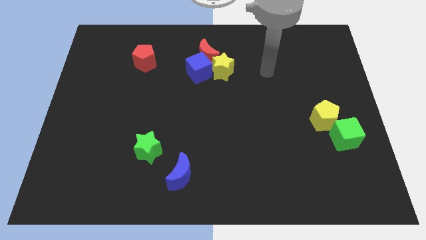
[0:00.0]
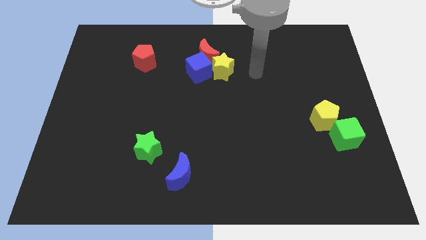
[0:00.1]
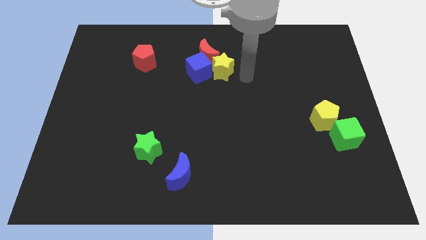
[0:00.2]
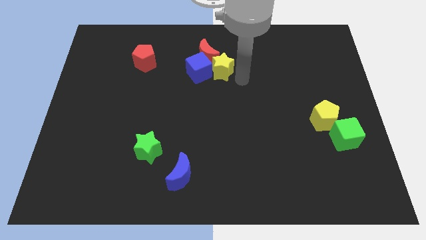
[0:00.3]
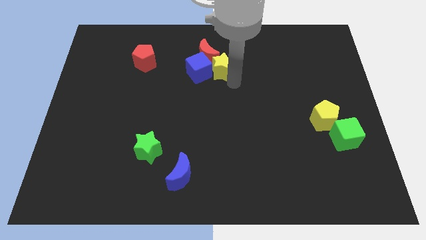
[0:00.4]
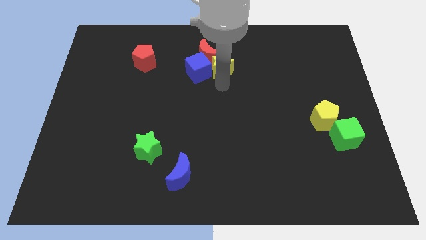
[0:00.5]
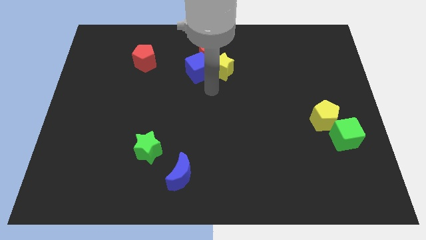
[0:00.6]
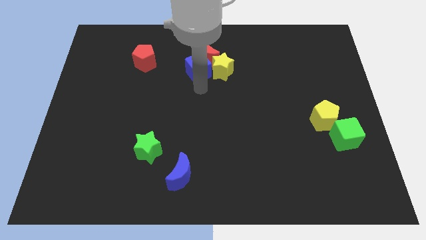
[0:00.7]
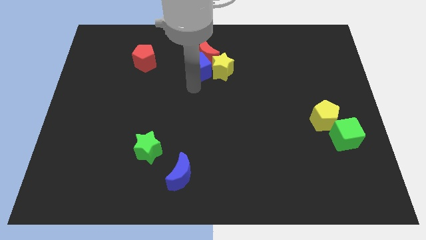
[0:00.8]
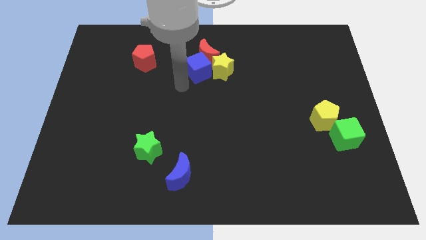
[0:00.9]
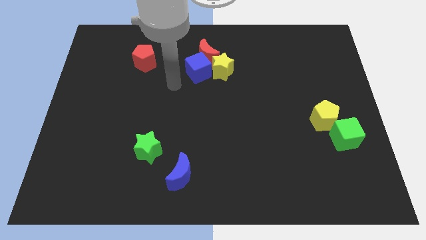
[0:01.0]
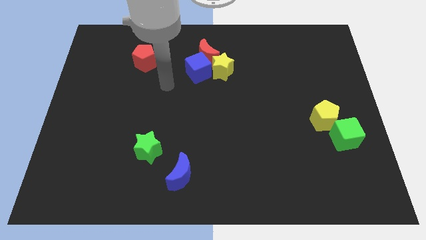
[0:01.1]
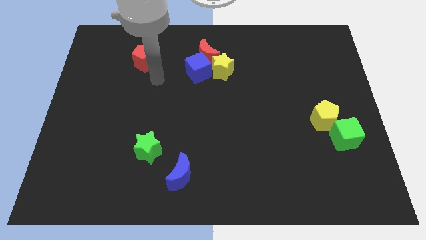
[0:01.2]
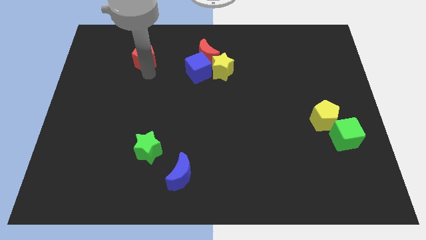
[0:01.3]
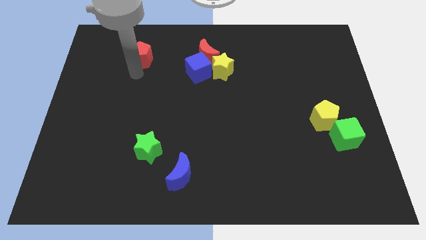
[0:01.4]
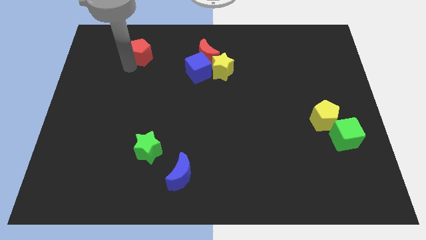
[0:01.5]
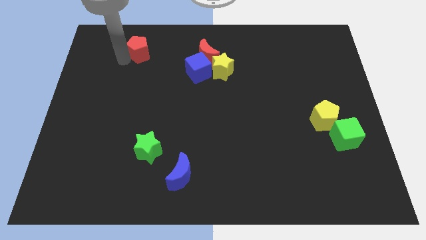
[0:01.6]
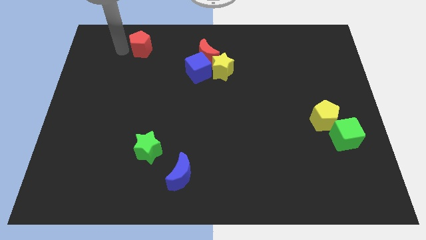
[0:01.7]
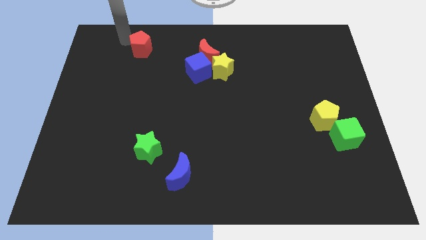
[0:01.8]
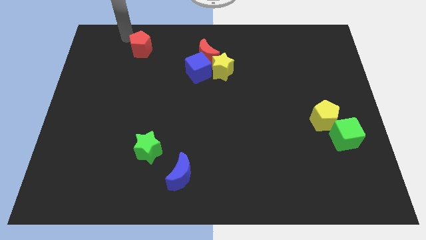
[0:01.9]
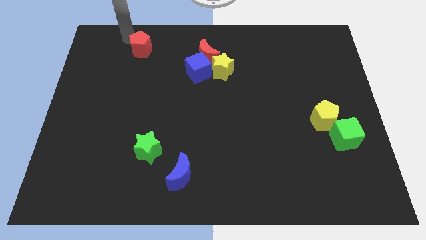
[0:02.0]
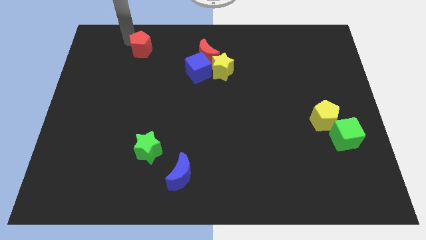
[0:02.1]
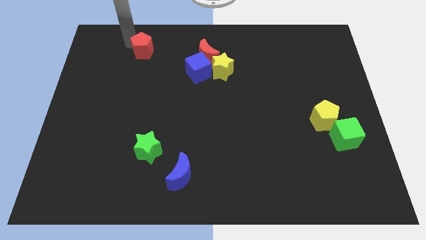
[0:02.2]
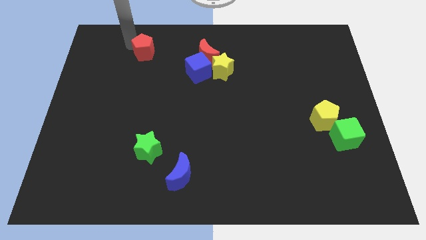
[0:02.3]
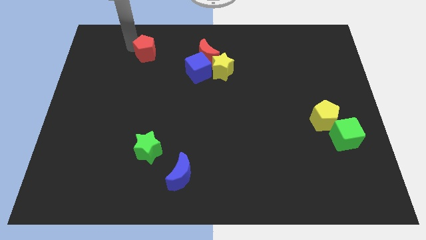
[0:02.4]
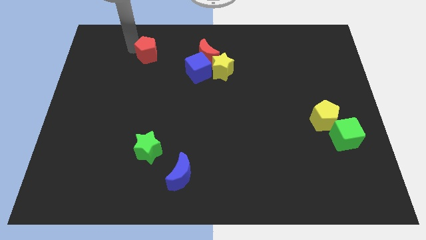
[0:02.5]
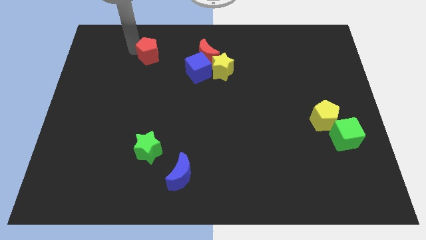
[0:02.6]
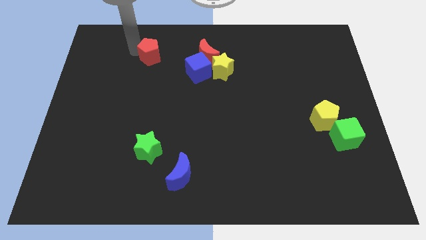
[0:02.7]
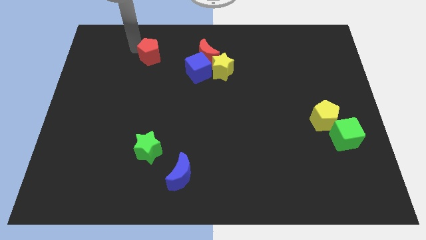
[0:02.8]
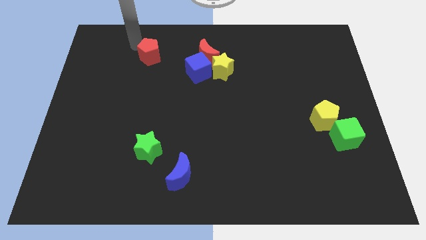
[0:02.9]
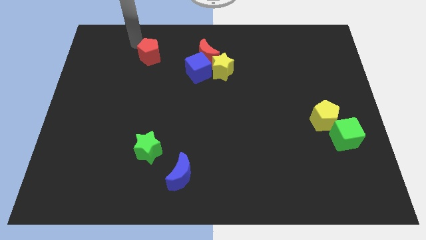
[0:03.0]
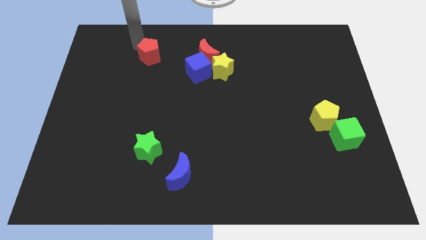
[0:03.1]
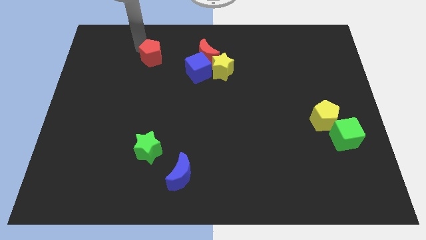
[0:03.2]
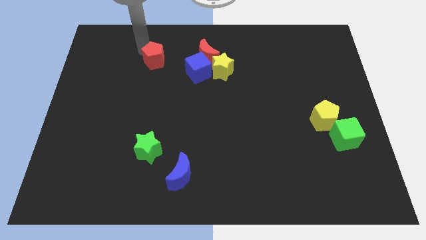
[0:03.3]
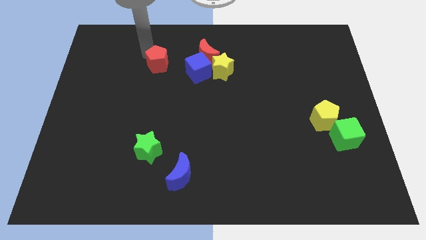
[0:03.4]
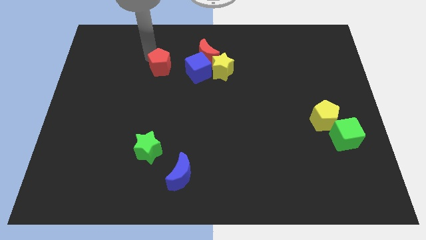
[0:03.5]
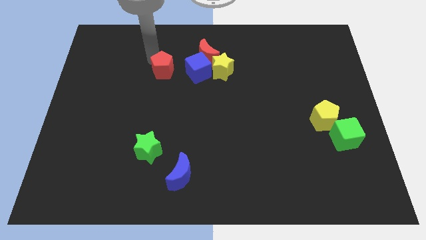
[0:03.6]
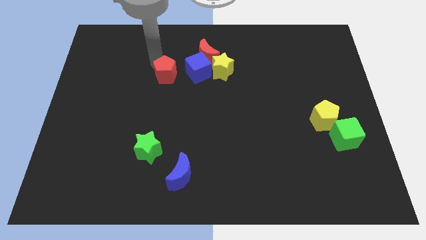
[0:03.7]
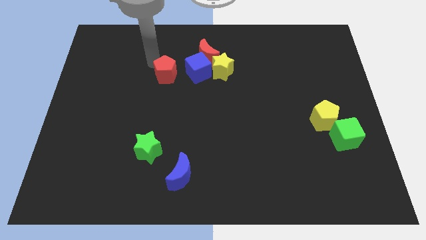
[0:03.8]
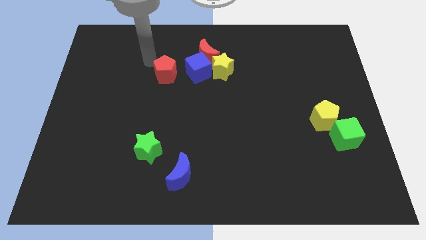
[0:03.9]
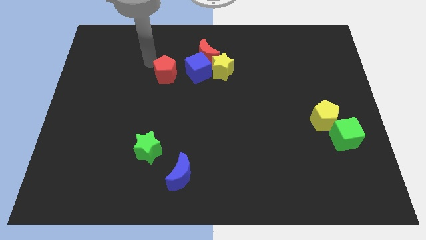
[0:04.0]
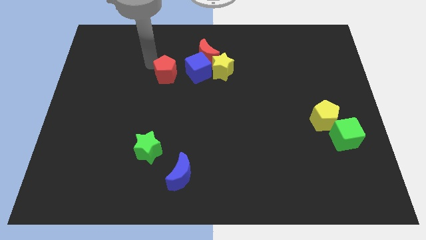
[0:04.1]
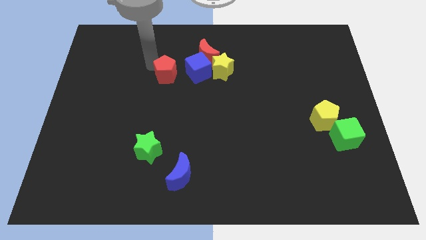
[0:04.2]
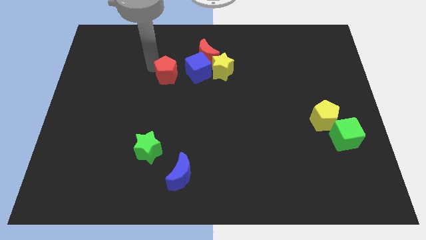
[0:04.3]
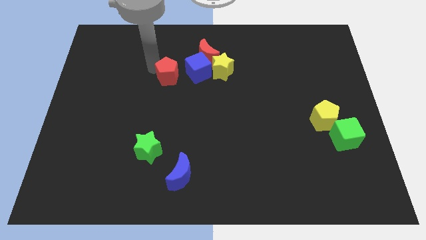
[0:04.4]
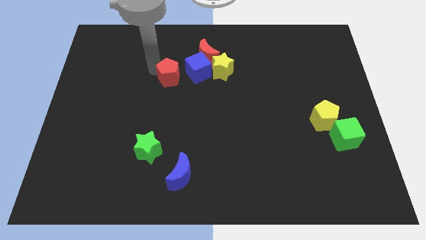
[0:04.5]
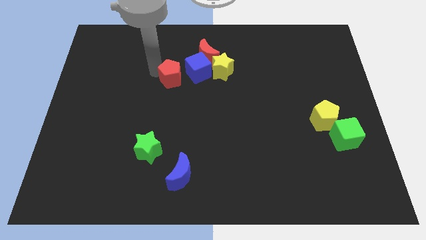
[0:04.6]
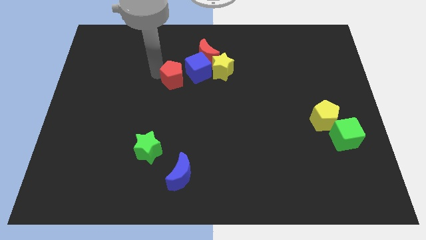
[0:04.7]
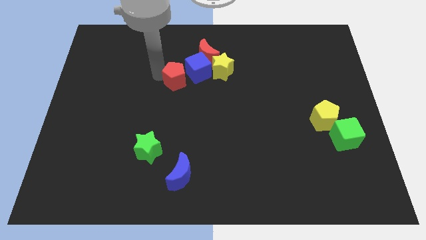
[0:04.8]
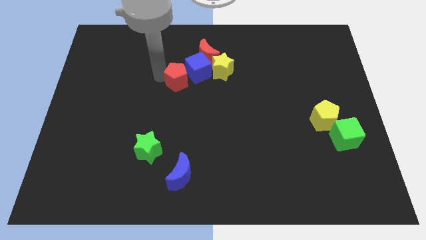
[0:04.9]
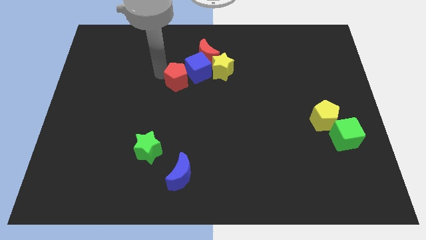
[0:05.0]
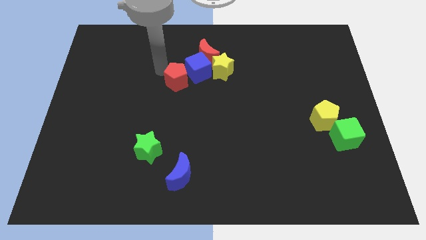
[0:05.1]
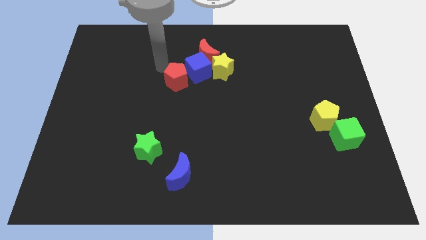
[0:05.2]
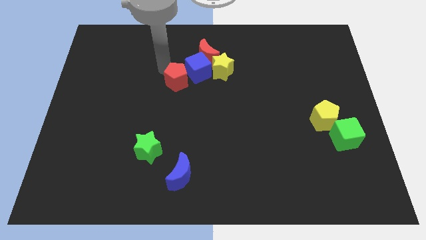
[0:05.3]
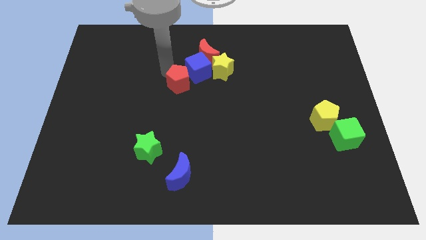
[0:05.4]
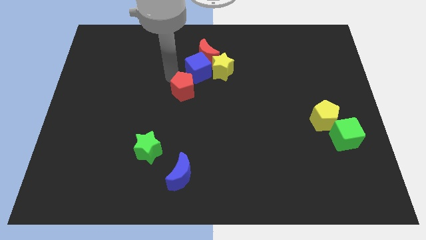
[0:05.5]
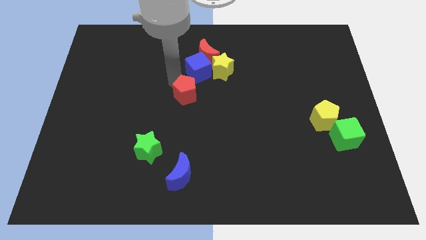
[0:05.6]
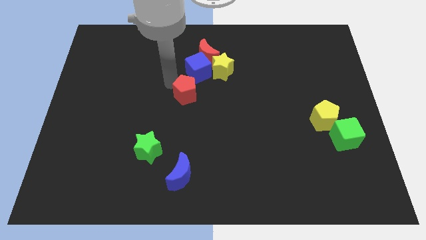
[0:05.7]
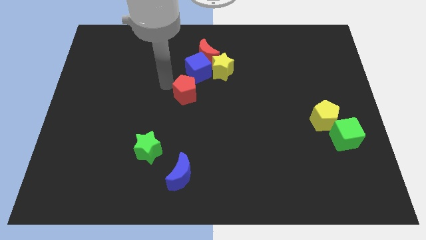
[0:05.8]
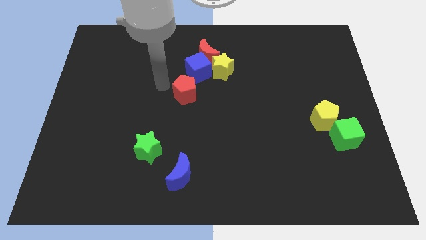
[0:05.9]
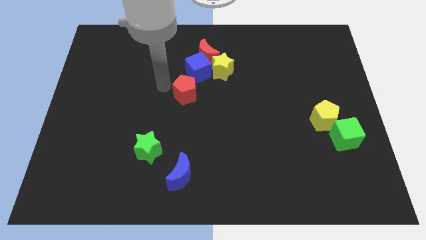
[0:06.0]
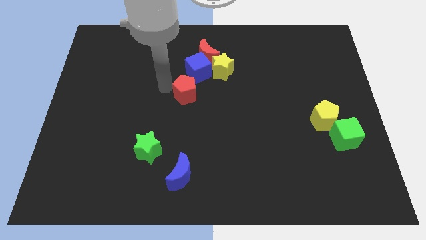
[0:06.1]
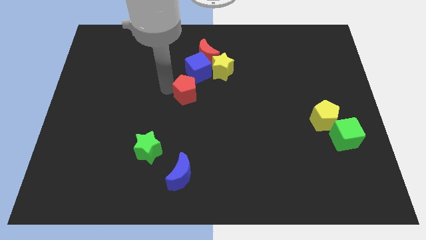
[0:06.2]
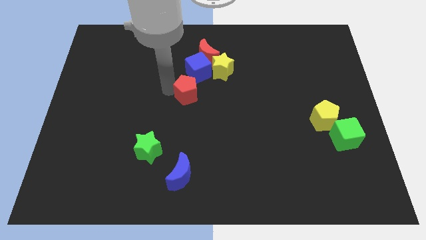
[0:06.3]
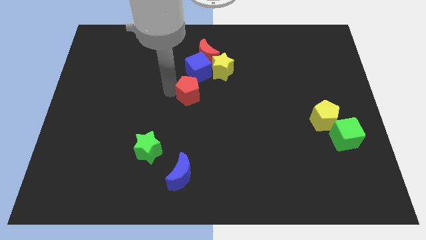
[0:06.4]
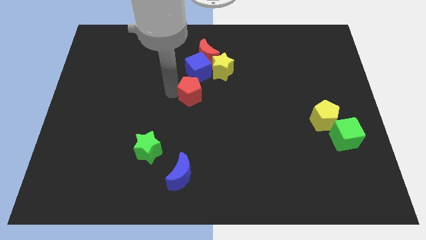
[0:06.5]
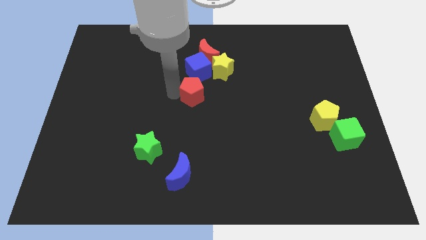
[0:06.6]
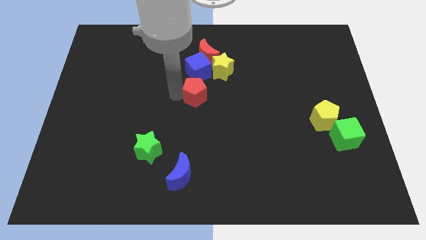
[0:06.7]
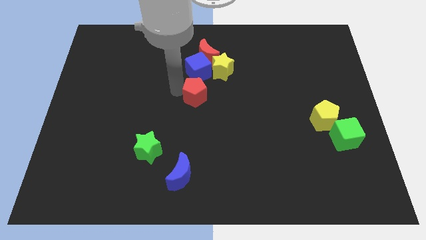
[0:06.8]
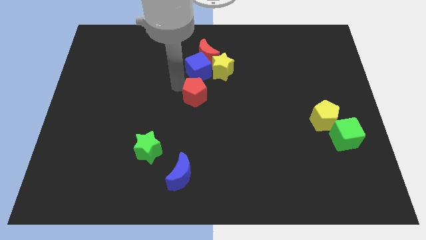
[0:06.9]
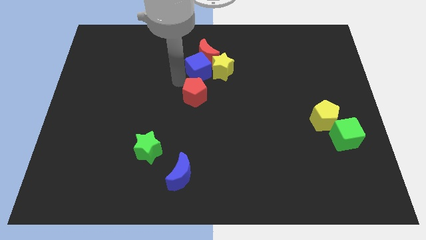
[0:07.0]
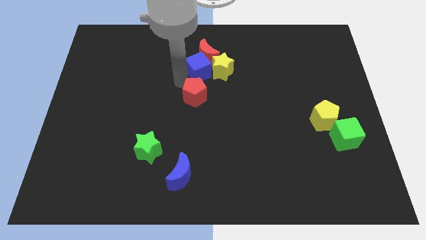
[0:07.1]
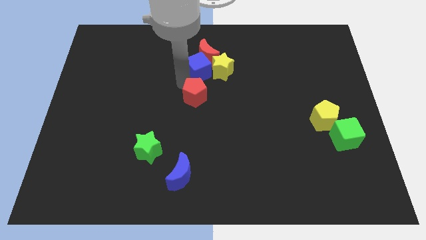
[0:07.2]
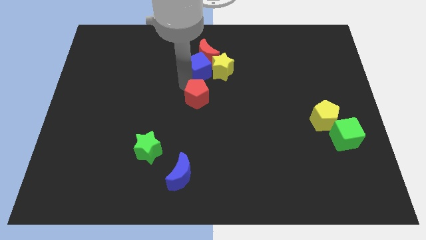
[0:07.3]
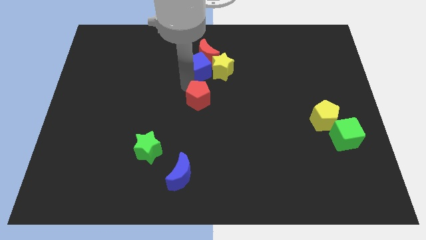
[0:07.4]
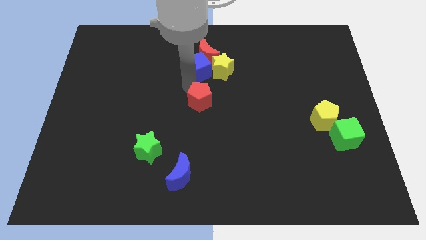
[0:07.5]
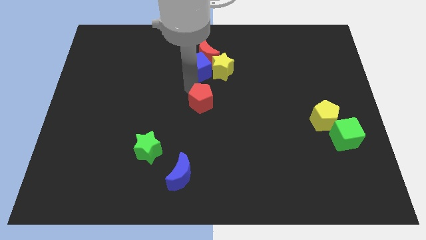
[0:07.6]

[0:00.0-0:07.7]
move the red pentagon diagonally down and right

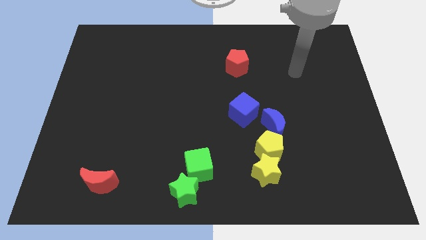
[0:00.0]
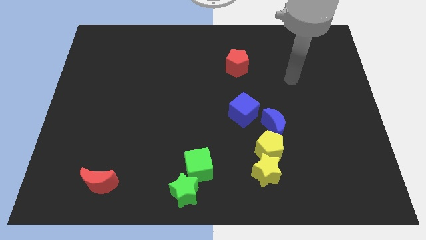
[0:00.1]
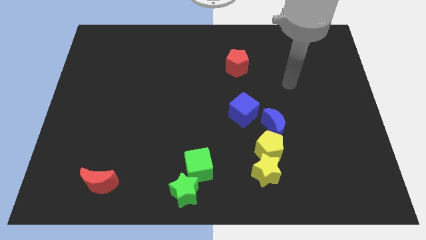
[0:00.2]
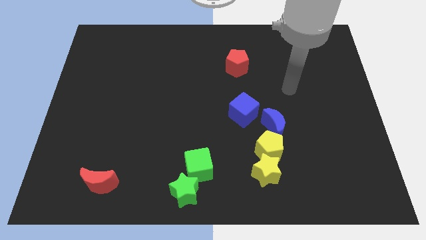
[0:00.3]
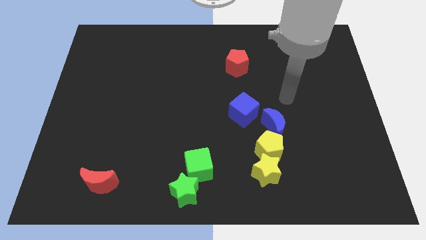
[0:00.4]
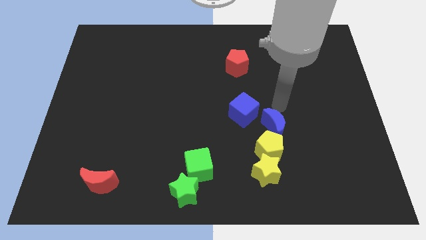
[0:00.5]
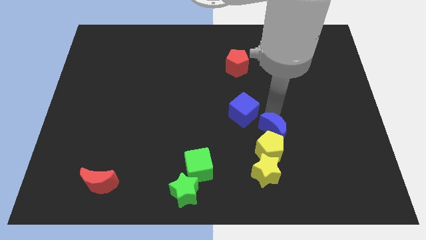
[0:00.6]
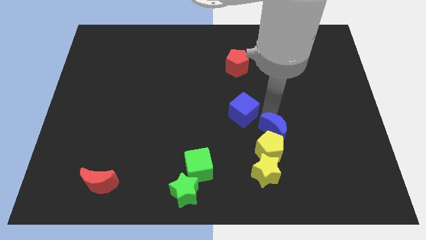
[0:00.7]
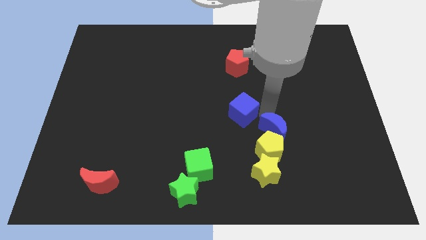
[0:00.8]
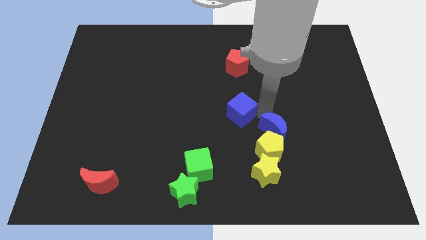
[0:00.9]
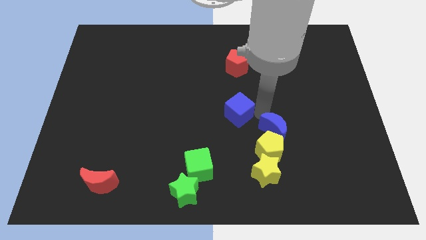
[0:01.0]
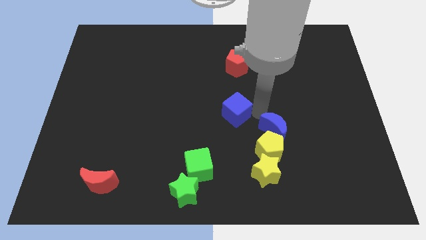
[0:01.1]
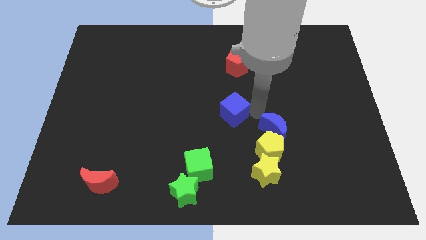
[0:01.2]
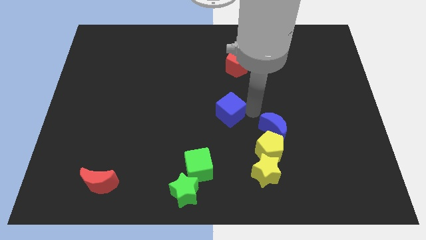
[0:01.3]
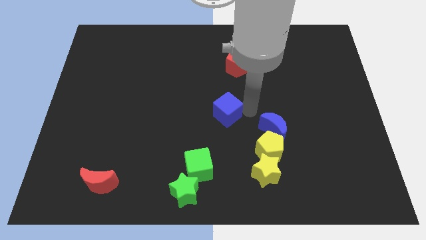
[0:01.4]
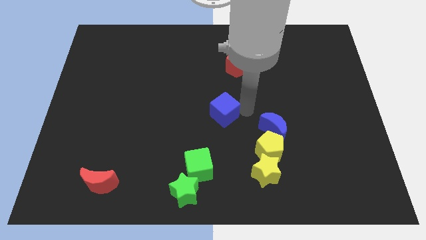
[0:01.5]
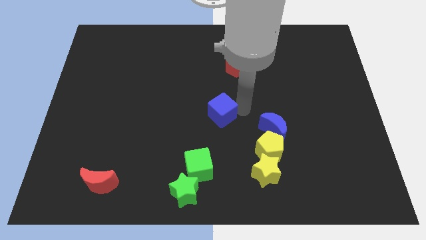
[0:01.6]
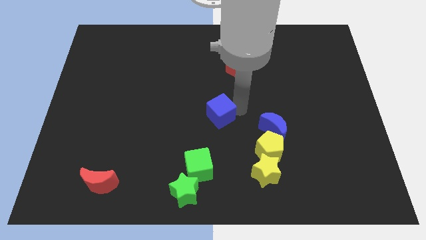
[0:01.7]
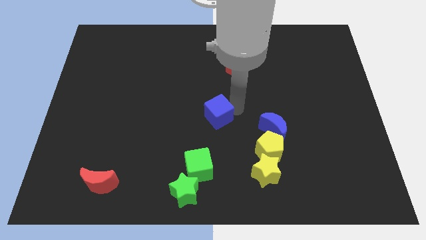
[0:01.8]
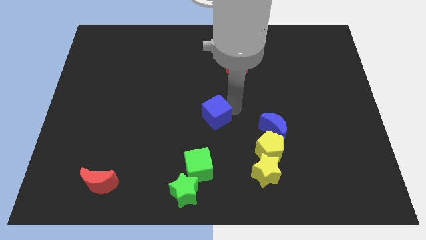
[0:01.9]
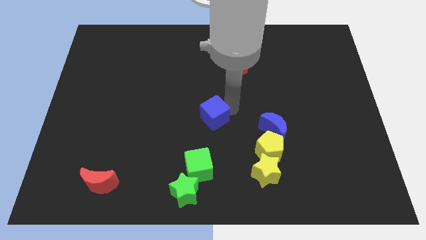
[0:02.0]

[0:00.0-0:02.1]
slightly move the blue cube to the left
